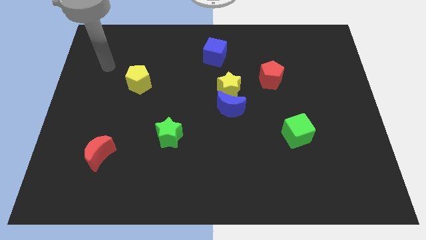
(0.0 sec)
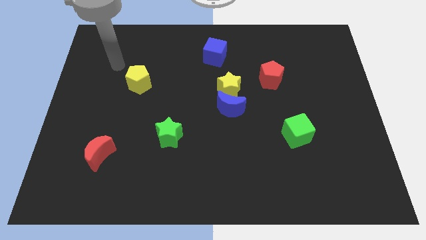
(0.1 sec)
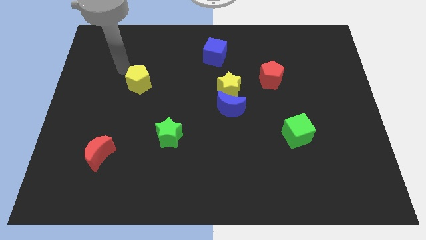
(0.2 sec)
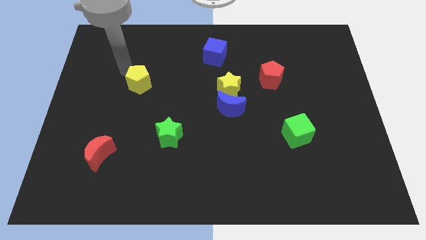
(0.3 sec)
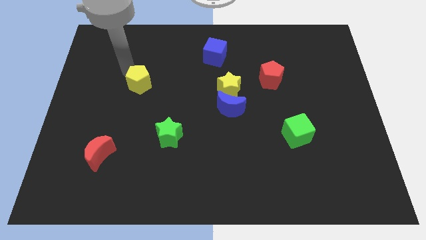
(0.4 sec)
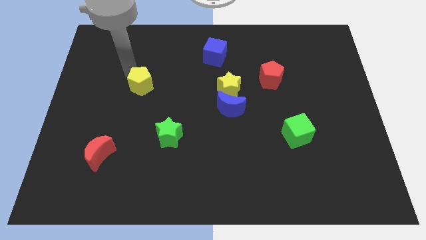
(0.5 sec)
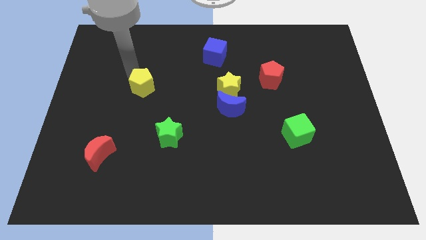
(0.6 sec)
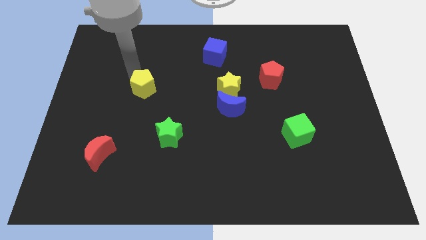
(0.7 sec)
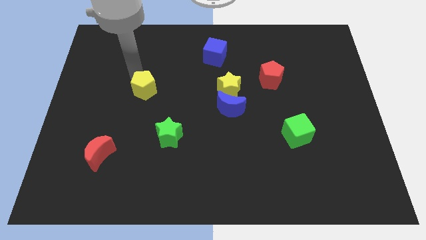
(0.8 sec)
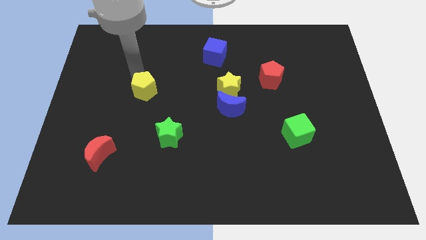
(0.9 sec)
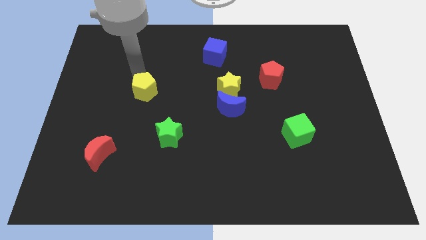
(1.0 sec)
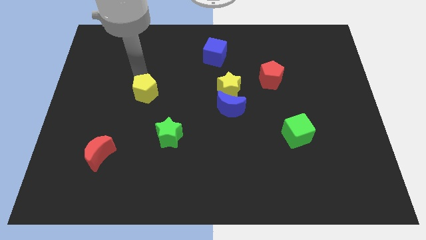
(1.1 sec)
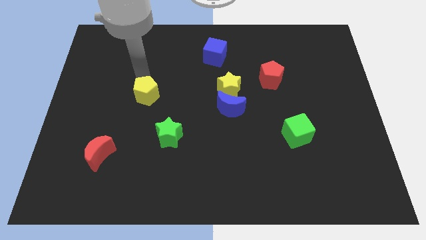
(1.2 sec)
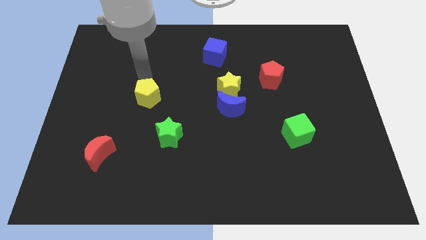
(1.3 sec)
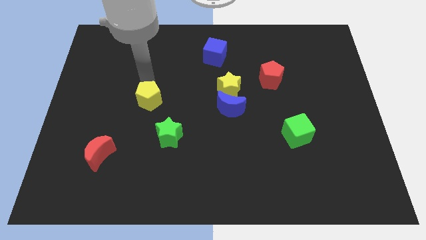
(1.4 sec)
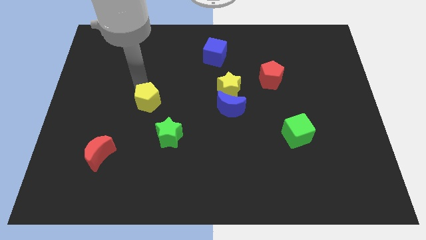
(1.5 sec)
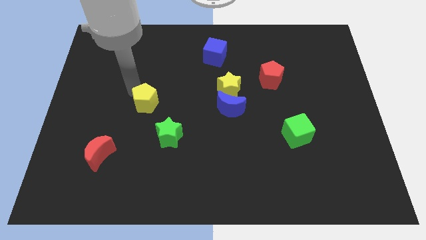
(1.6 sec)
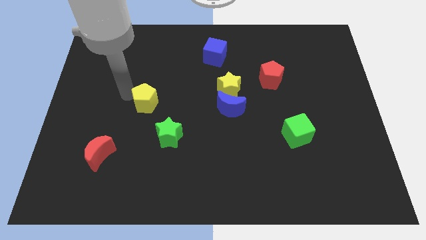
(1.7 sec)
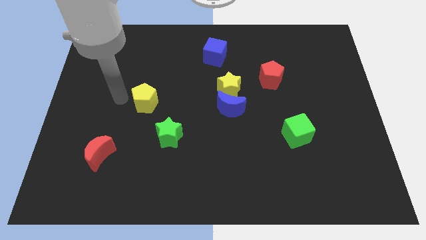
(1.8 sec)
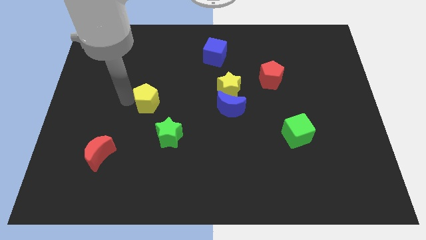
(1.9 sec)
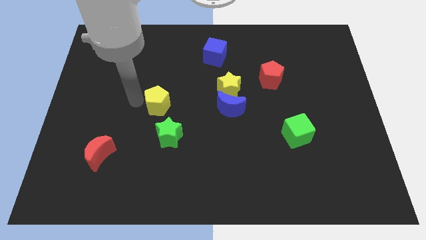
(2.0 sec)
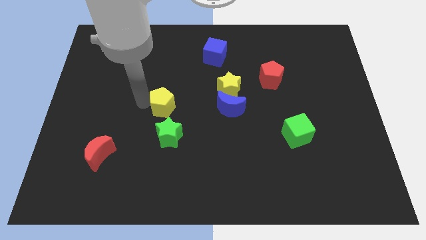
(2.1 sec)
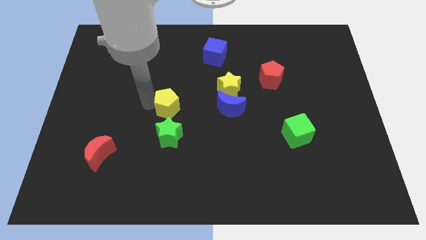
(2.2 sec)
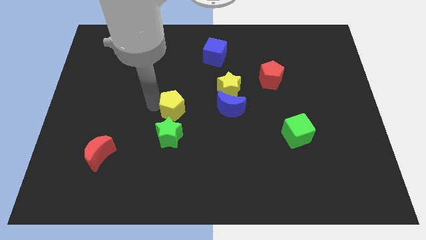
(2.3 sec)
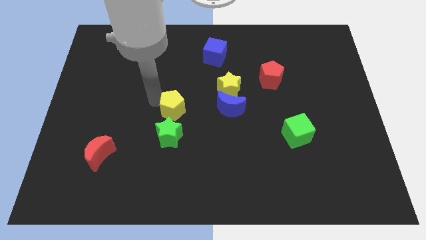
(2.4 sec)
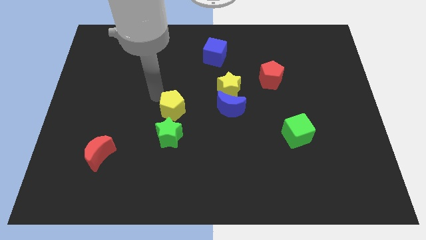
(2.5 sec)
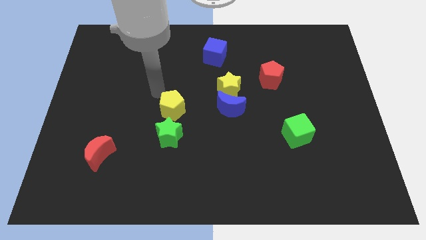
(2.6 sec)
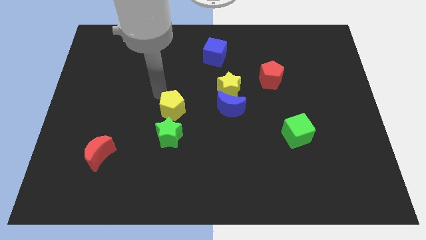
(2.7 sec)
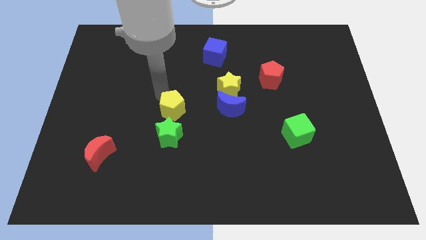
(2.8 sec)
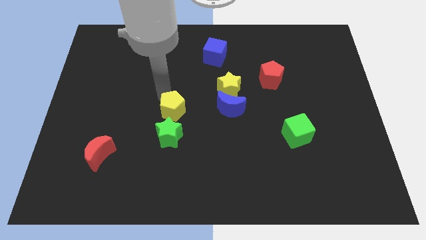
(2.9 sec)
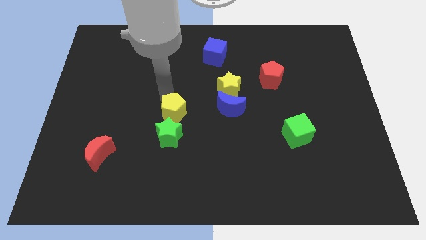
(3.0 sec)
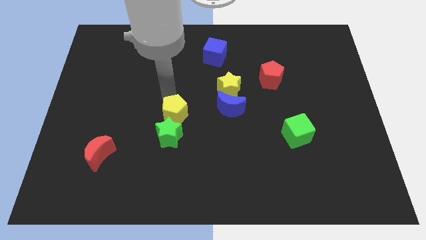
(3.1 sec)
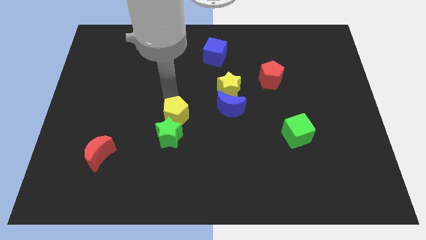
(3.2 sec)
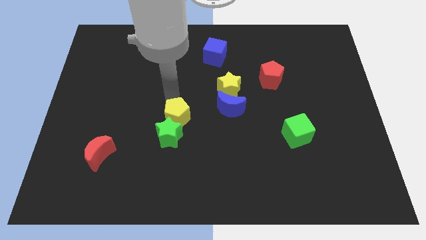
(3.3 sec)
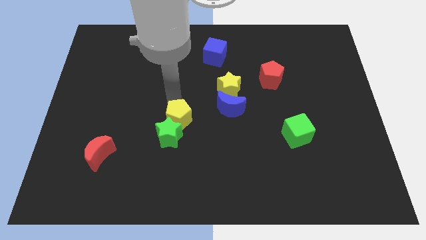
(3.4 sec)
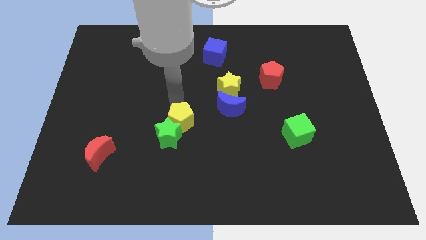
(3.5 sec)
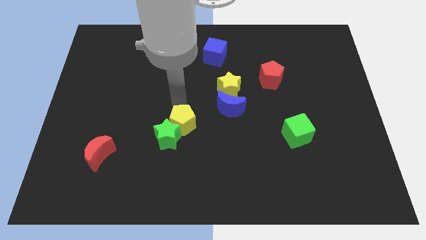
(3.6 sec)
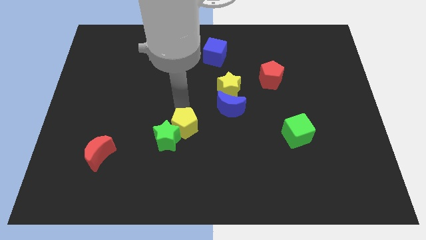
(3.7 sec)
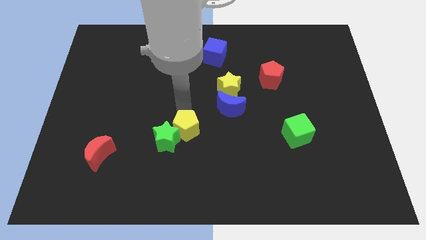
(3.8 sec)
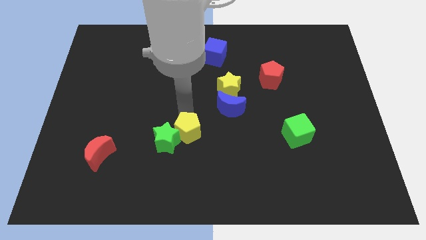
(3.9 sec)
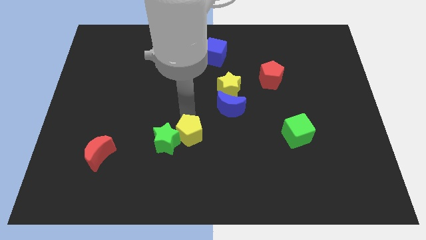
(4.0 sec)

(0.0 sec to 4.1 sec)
slide the yellow pentagon diagonally down and right

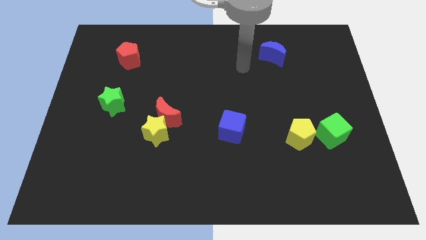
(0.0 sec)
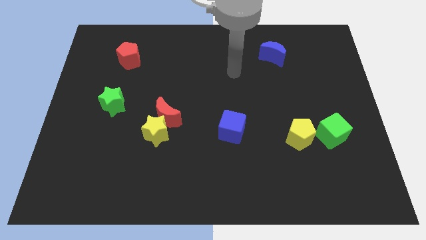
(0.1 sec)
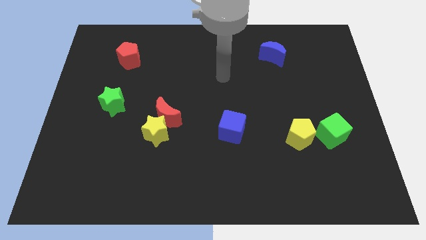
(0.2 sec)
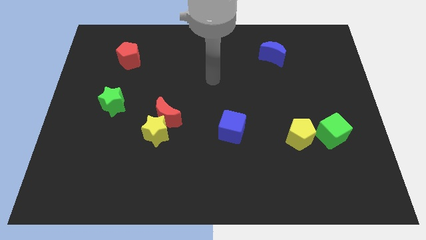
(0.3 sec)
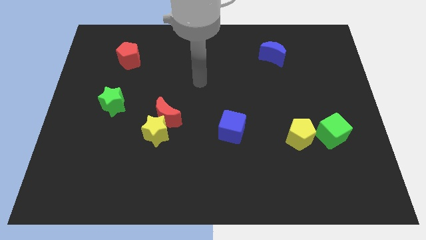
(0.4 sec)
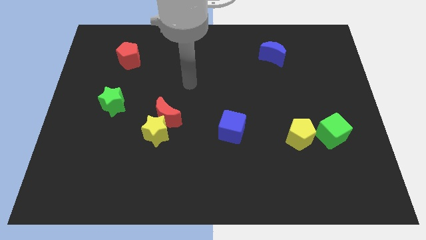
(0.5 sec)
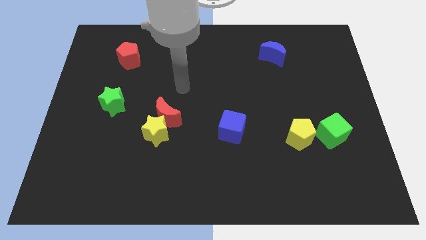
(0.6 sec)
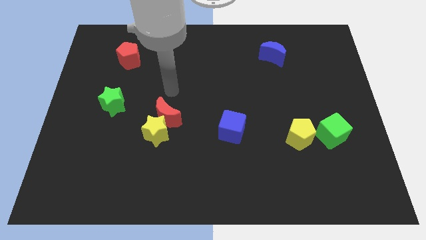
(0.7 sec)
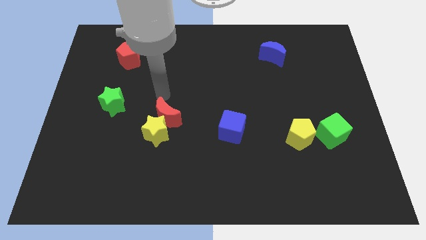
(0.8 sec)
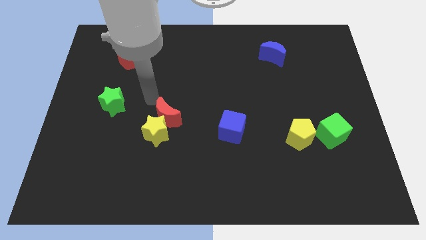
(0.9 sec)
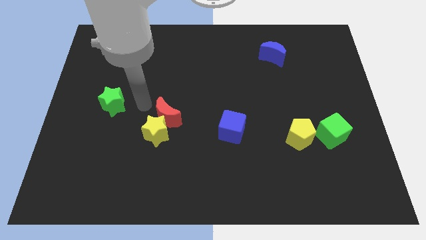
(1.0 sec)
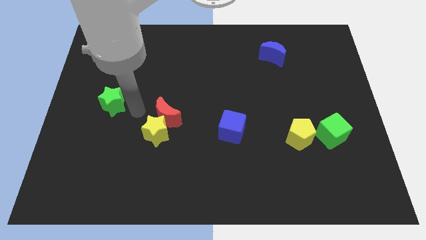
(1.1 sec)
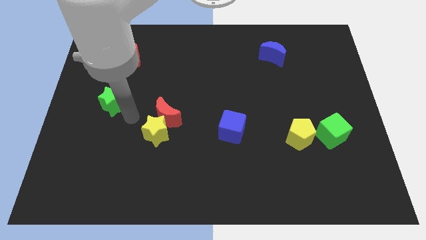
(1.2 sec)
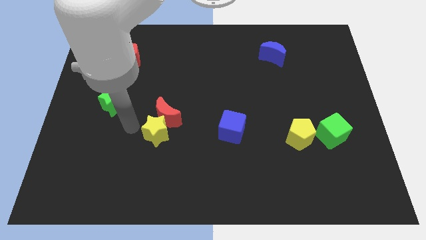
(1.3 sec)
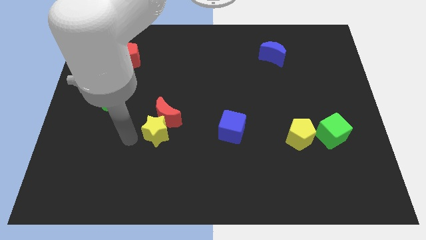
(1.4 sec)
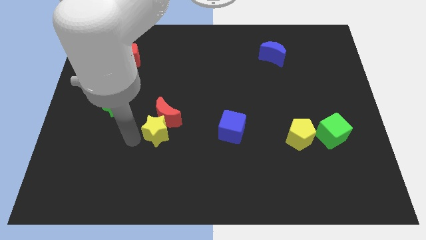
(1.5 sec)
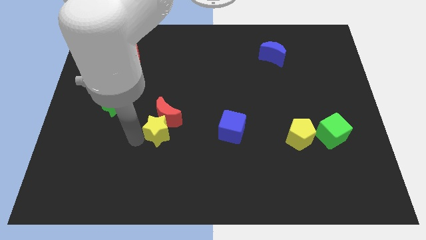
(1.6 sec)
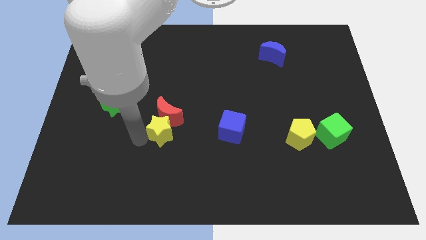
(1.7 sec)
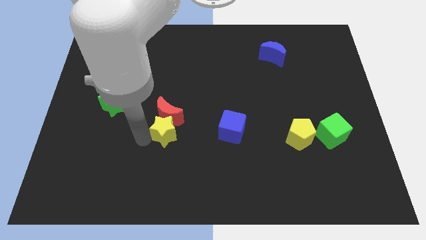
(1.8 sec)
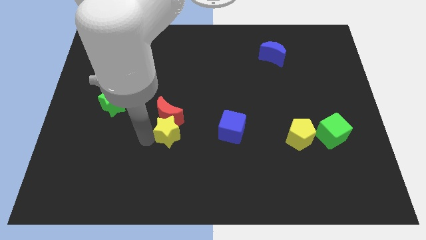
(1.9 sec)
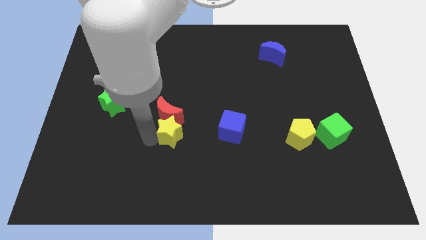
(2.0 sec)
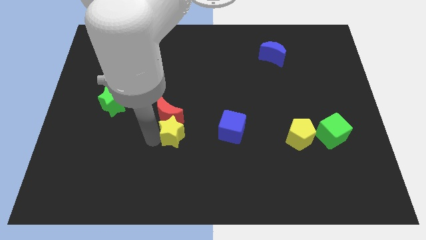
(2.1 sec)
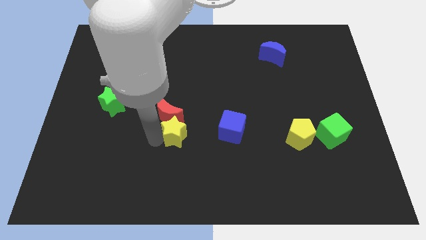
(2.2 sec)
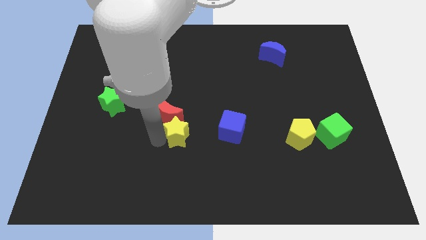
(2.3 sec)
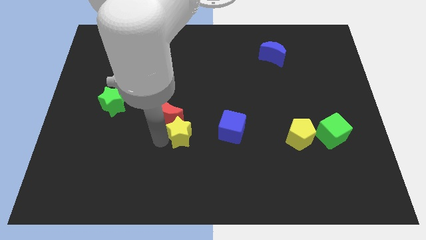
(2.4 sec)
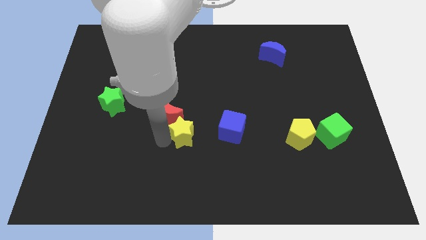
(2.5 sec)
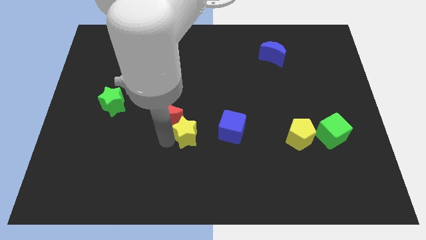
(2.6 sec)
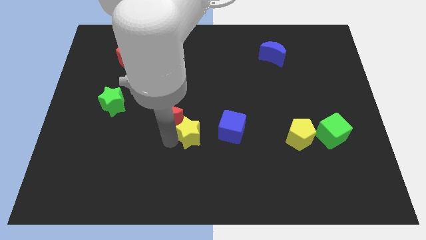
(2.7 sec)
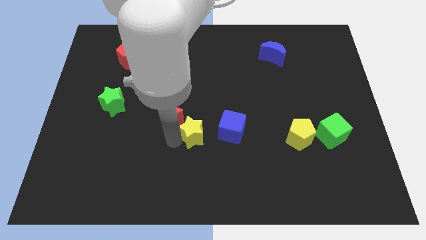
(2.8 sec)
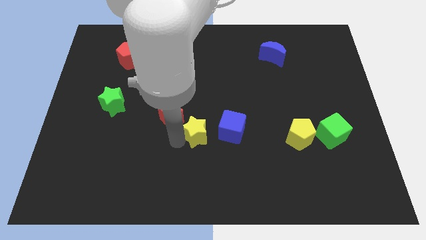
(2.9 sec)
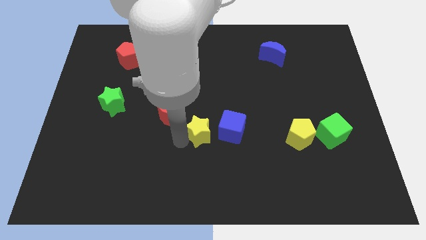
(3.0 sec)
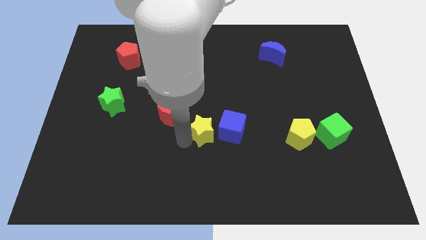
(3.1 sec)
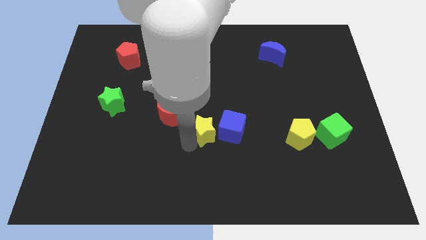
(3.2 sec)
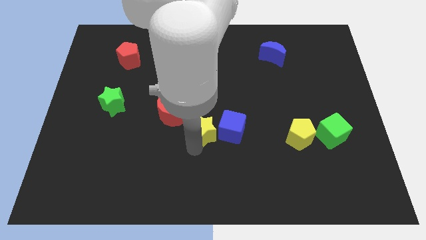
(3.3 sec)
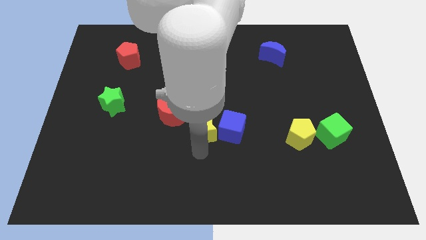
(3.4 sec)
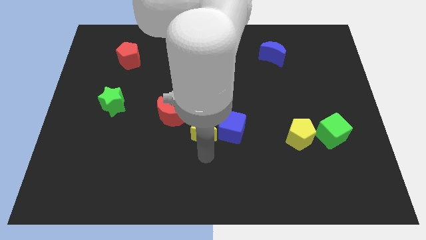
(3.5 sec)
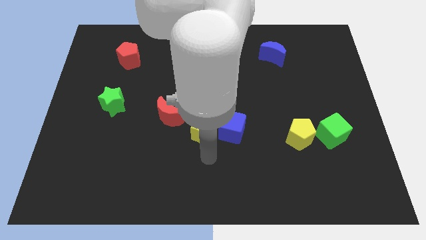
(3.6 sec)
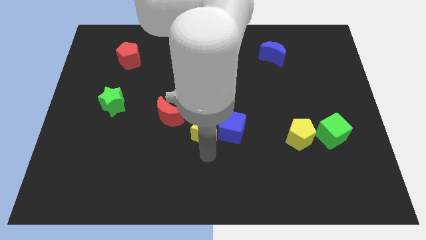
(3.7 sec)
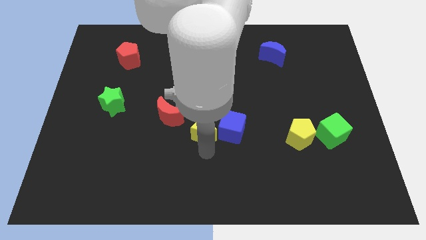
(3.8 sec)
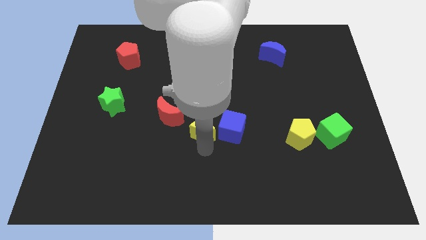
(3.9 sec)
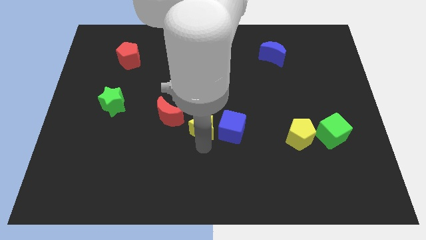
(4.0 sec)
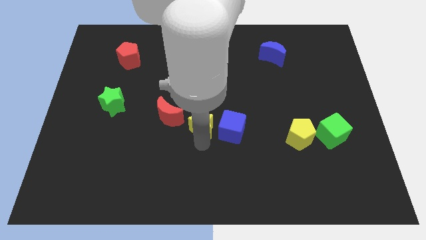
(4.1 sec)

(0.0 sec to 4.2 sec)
push the yellow star upwards and right diagonally slightly
